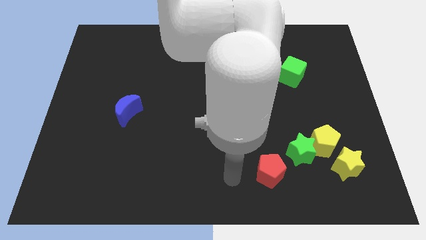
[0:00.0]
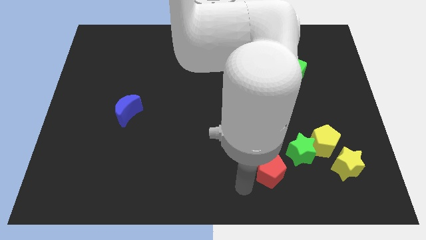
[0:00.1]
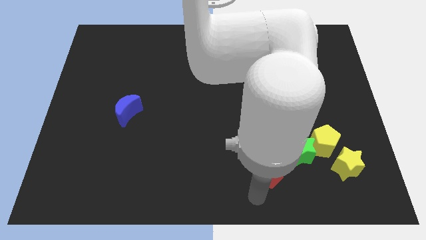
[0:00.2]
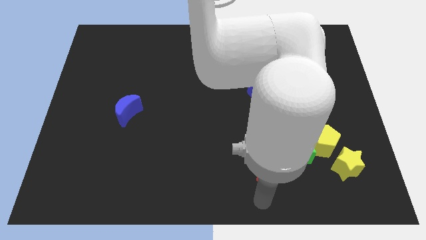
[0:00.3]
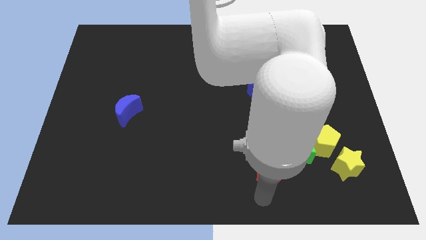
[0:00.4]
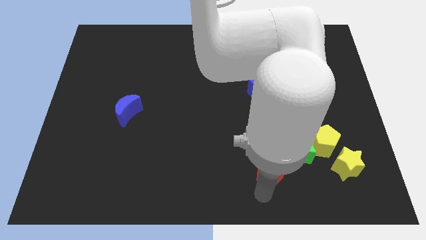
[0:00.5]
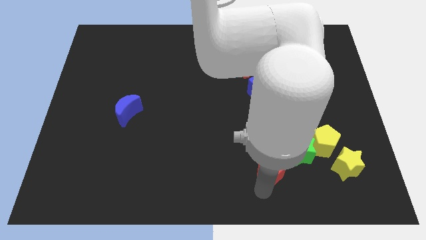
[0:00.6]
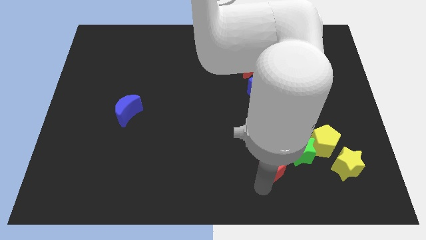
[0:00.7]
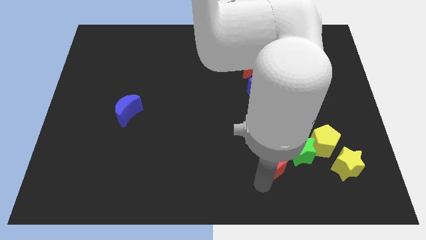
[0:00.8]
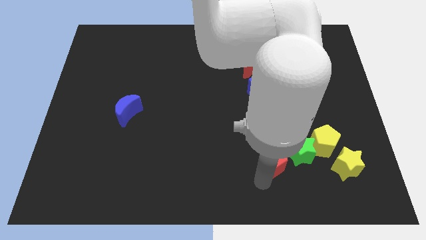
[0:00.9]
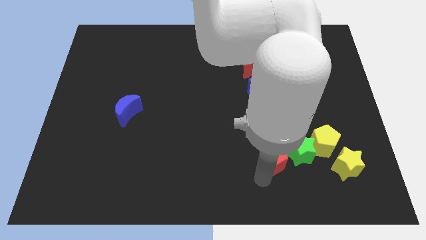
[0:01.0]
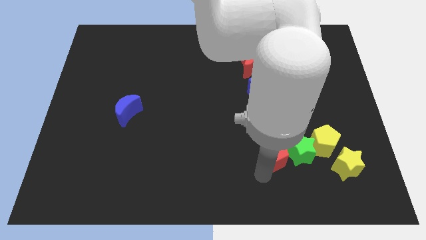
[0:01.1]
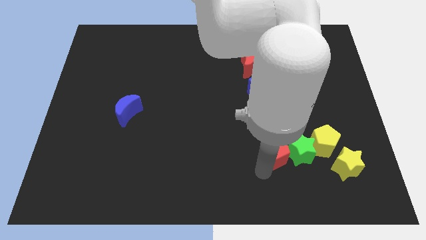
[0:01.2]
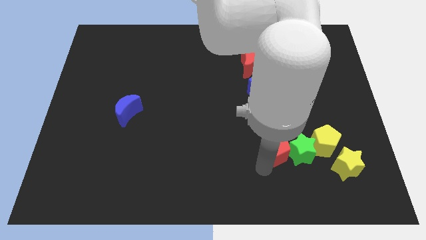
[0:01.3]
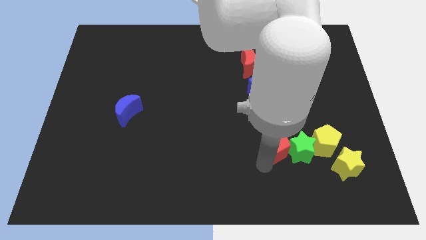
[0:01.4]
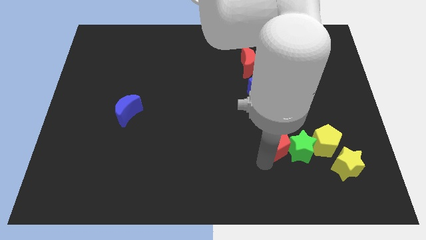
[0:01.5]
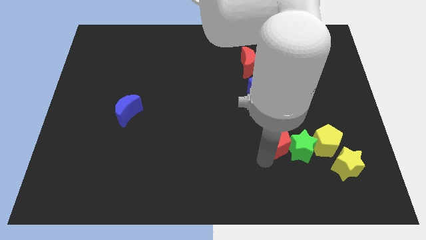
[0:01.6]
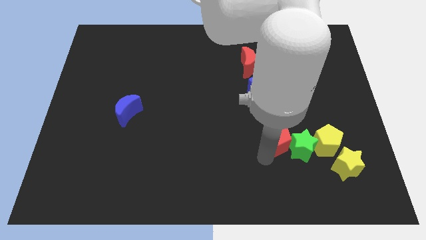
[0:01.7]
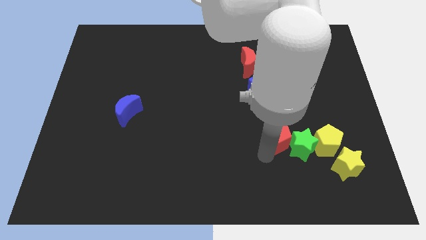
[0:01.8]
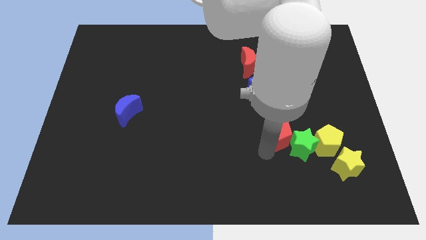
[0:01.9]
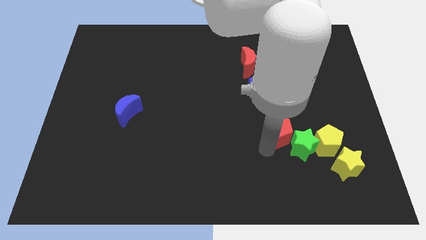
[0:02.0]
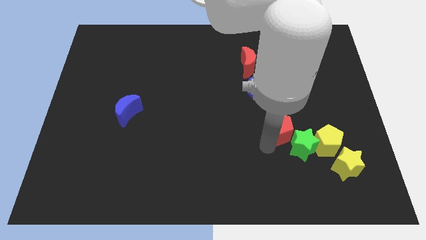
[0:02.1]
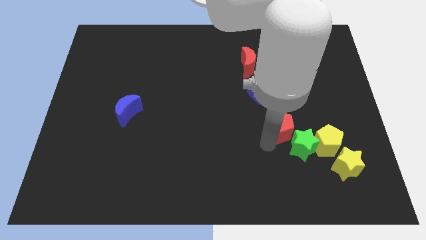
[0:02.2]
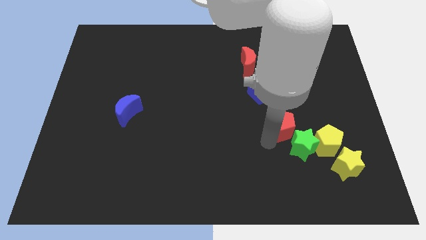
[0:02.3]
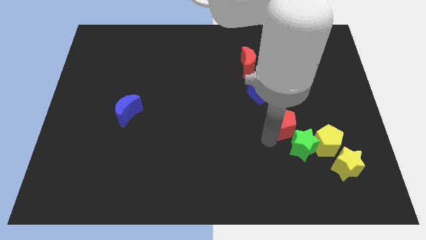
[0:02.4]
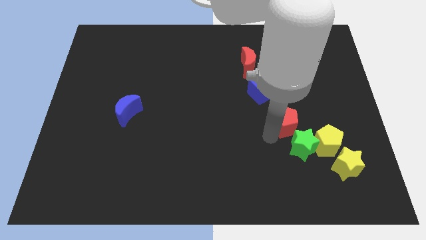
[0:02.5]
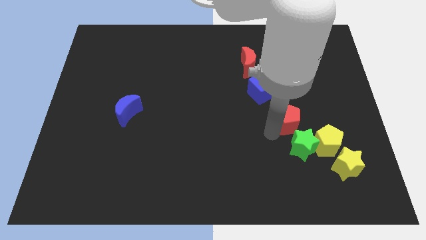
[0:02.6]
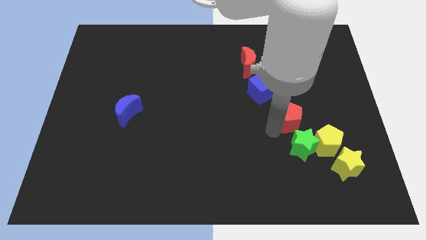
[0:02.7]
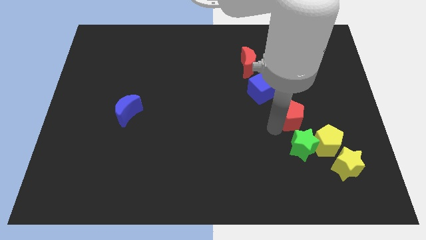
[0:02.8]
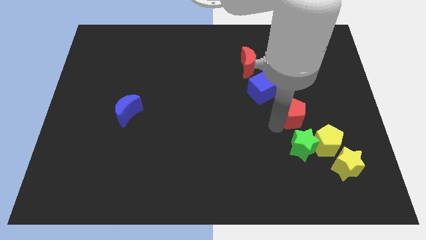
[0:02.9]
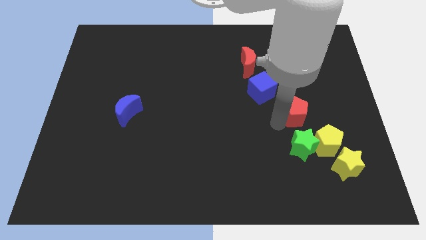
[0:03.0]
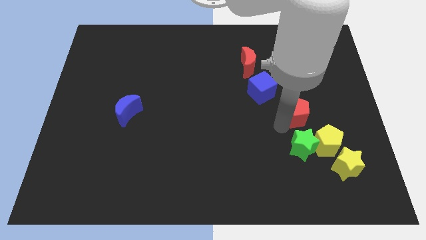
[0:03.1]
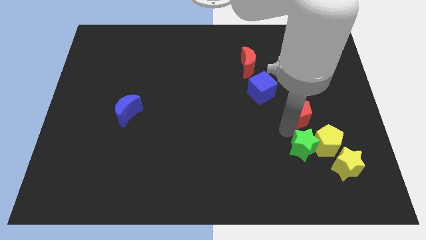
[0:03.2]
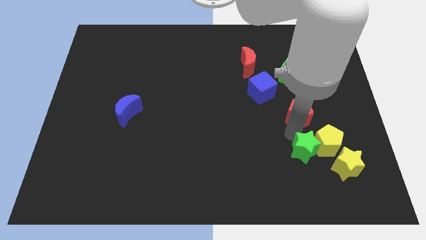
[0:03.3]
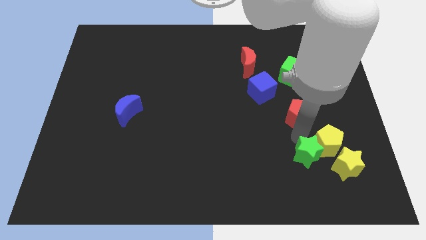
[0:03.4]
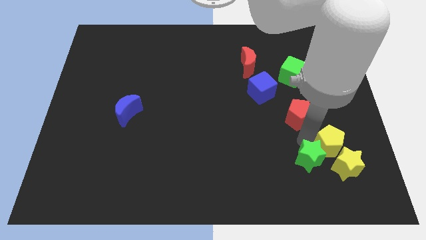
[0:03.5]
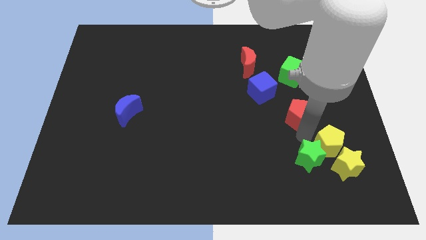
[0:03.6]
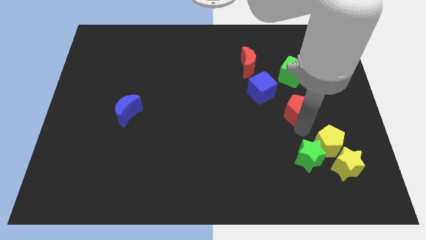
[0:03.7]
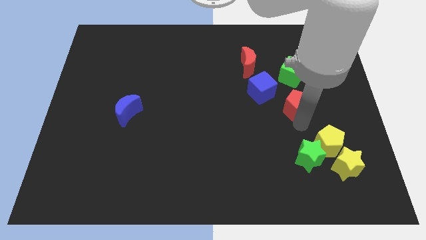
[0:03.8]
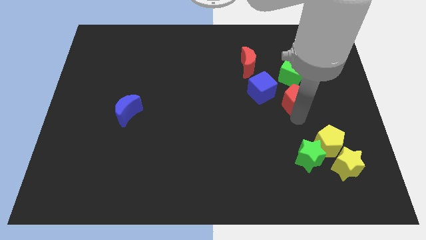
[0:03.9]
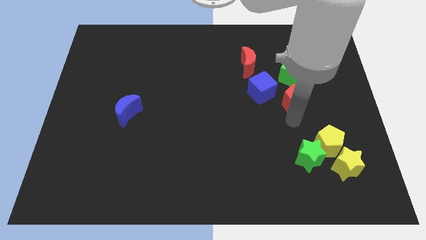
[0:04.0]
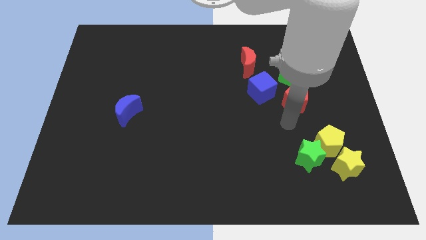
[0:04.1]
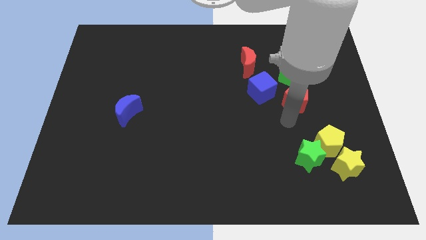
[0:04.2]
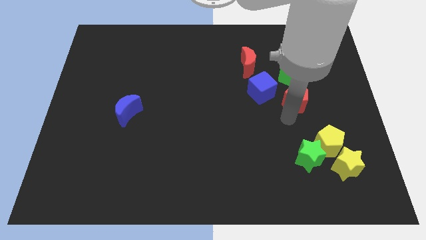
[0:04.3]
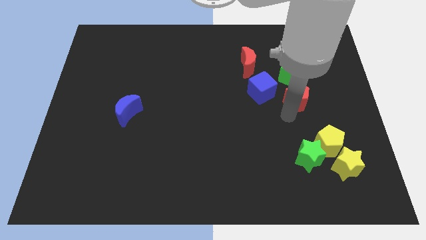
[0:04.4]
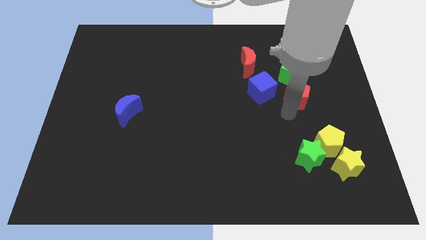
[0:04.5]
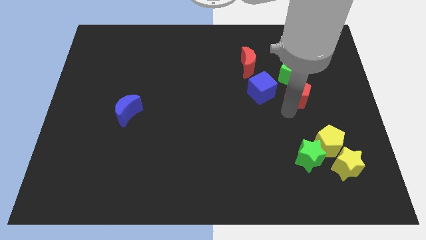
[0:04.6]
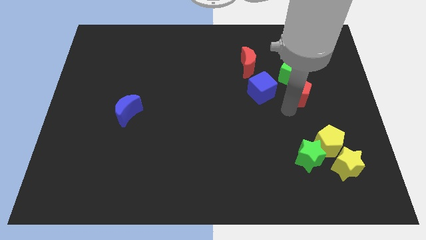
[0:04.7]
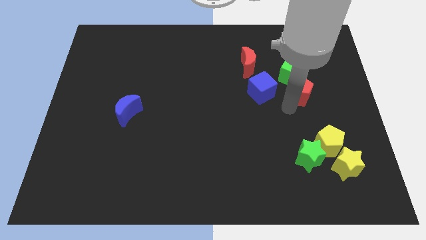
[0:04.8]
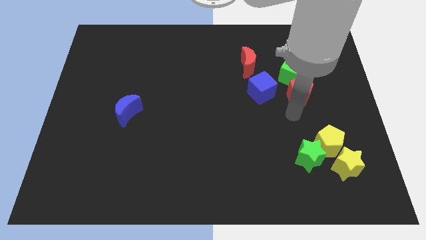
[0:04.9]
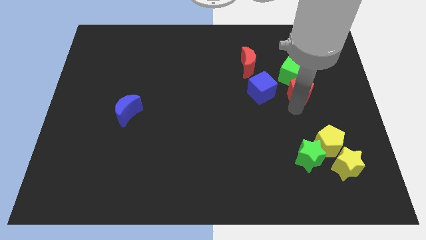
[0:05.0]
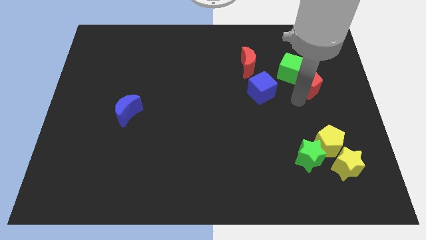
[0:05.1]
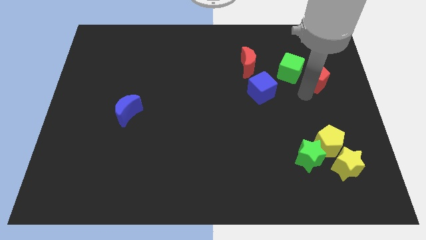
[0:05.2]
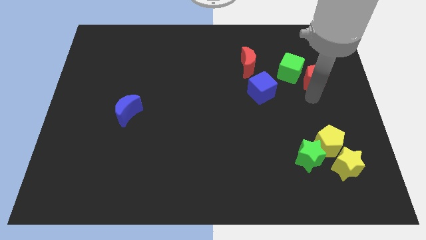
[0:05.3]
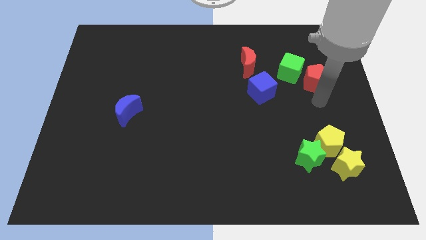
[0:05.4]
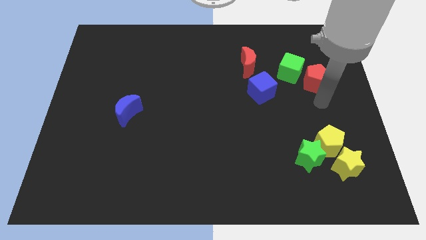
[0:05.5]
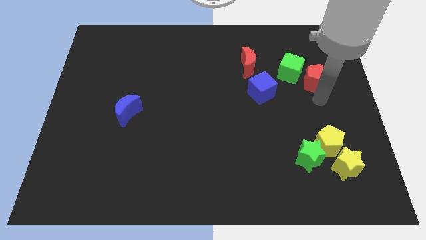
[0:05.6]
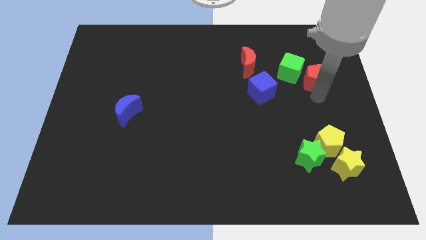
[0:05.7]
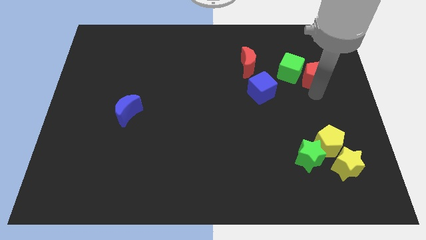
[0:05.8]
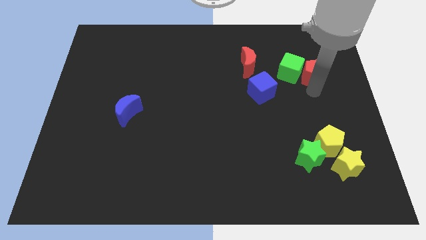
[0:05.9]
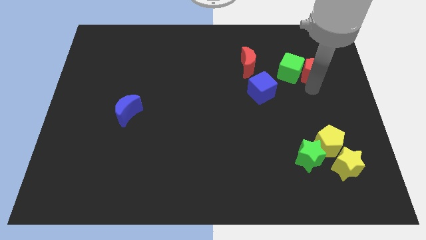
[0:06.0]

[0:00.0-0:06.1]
push the red pentagon to the top right of the green cube

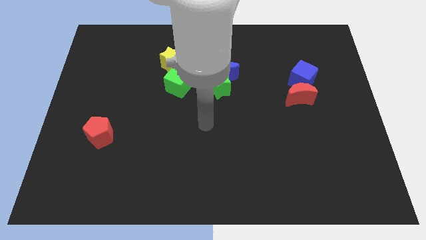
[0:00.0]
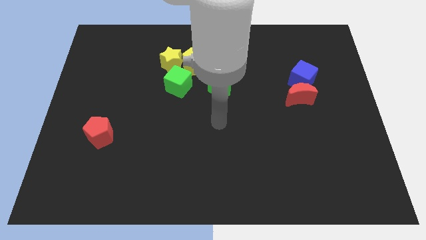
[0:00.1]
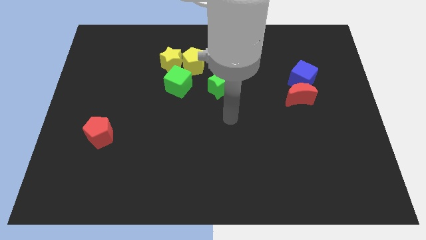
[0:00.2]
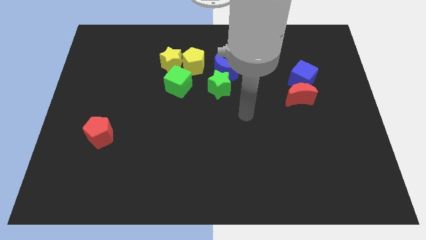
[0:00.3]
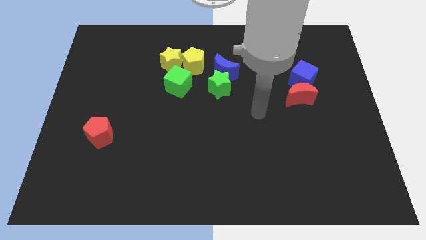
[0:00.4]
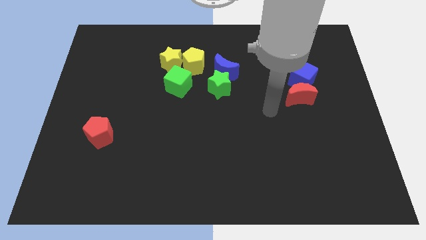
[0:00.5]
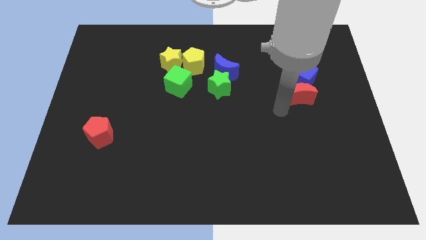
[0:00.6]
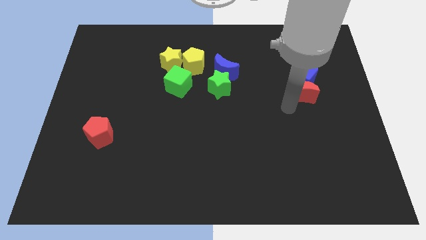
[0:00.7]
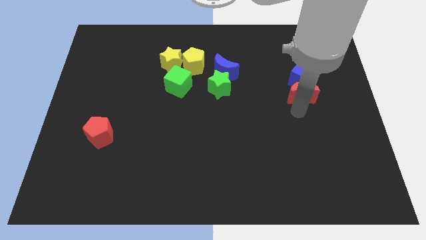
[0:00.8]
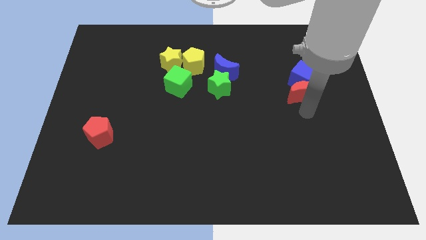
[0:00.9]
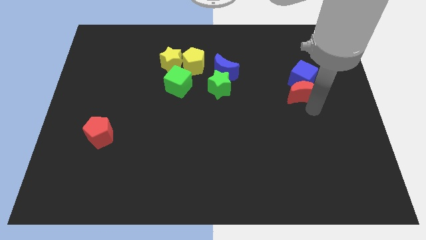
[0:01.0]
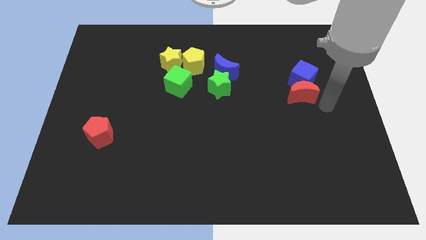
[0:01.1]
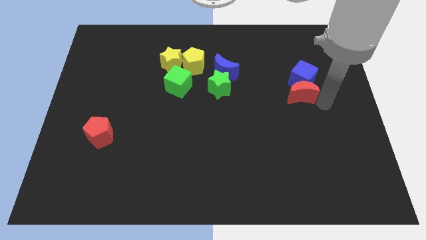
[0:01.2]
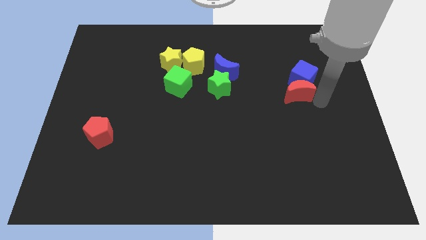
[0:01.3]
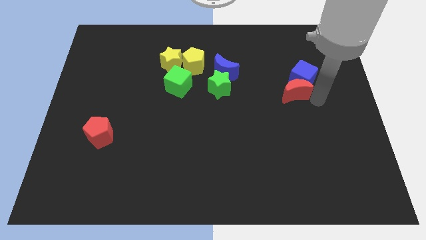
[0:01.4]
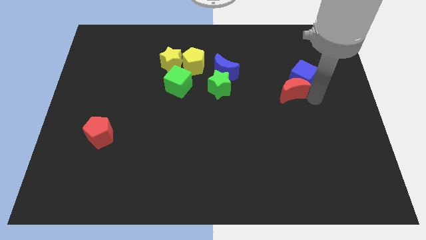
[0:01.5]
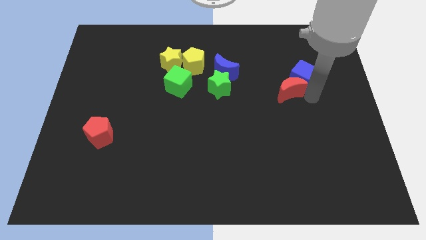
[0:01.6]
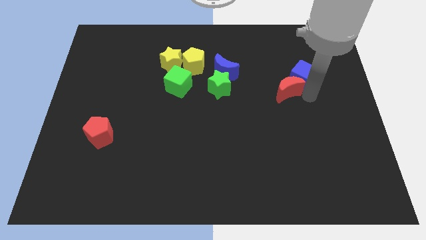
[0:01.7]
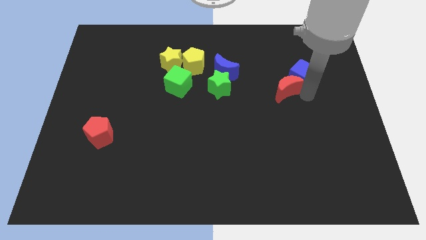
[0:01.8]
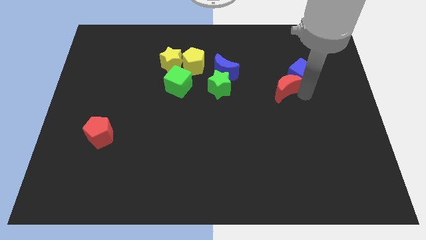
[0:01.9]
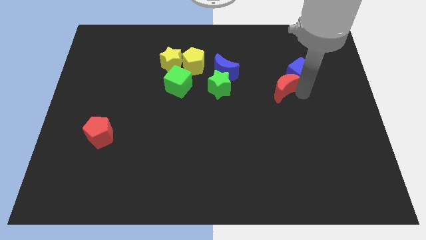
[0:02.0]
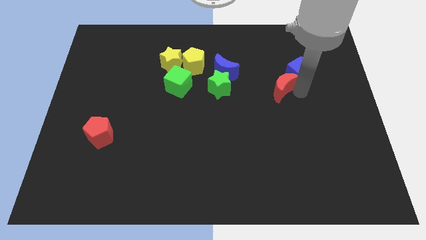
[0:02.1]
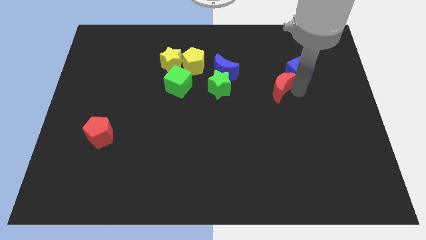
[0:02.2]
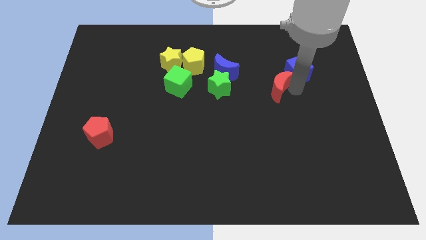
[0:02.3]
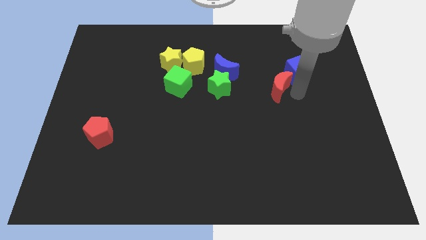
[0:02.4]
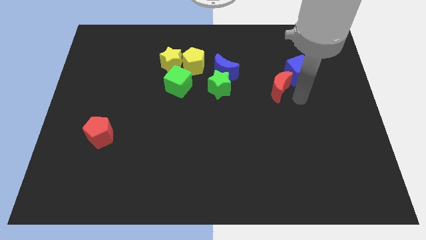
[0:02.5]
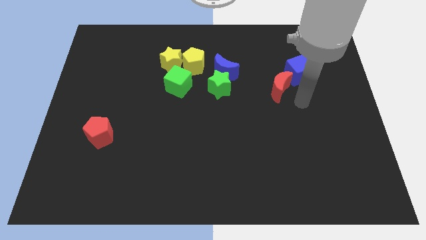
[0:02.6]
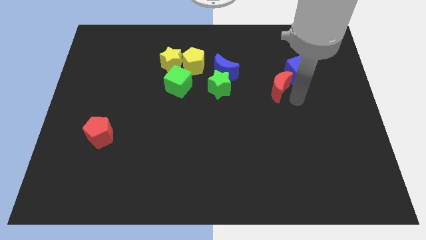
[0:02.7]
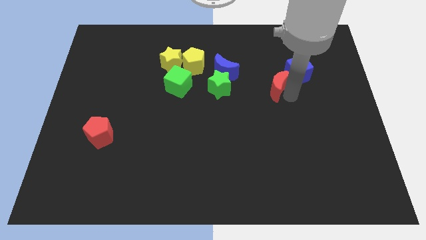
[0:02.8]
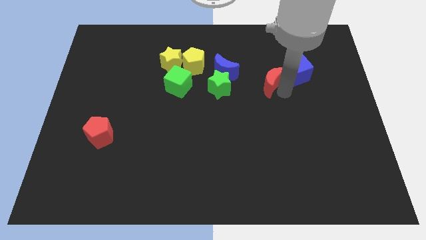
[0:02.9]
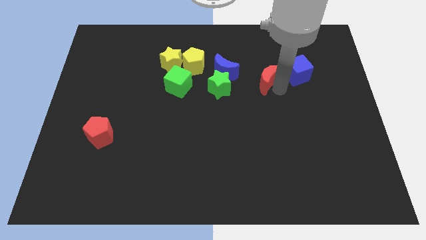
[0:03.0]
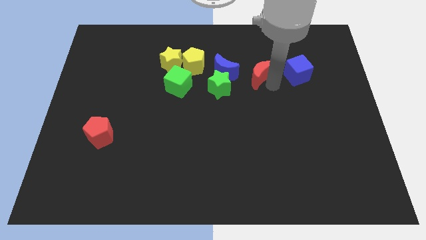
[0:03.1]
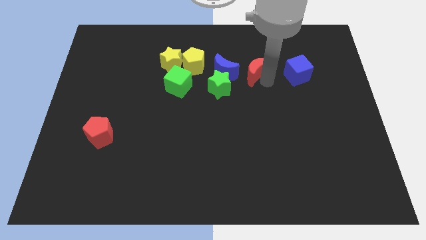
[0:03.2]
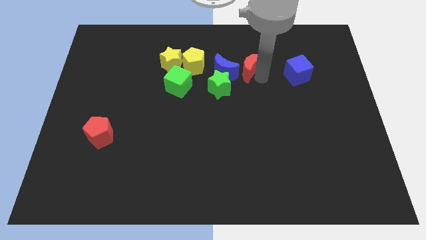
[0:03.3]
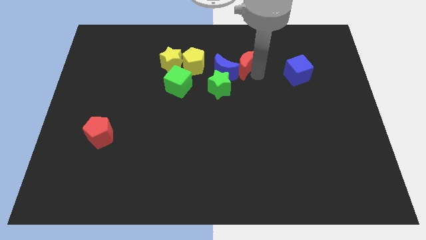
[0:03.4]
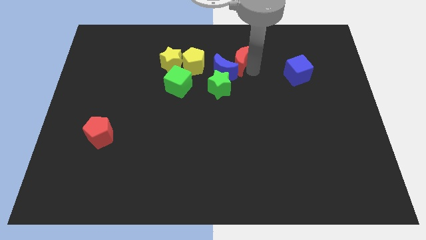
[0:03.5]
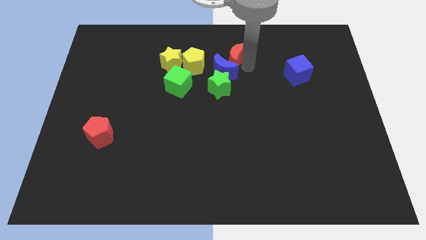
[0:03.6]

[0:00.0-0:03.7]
push the red moon above the green star
